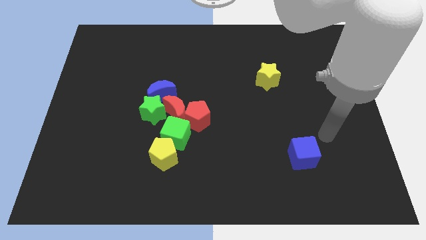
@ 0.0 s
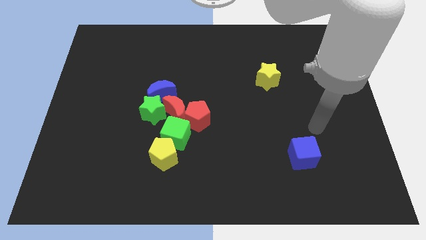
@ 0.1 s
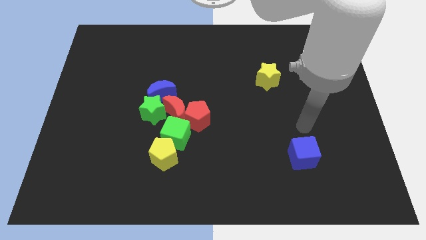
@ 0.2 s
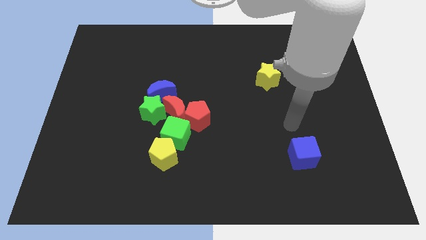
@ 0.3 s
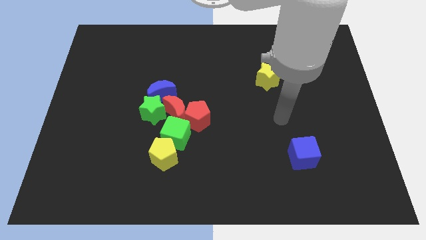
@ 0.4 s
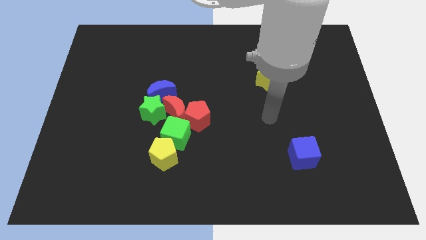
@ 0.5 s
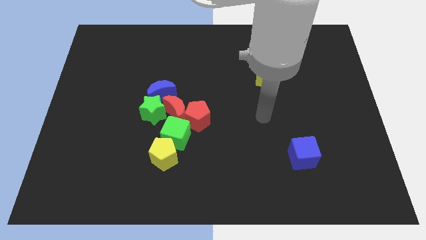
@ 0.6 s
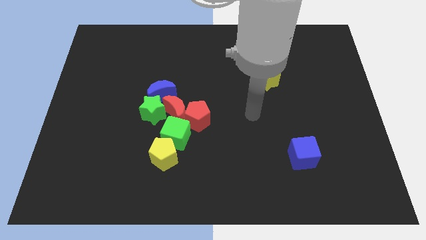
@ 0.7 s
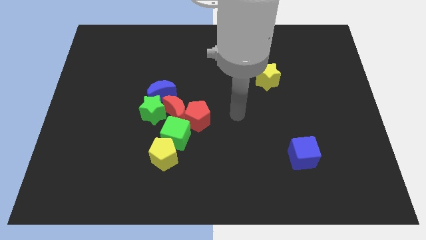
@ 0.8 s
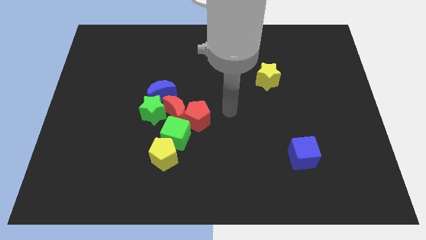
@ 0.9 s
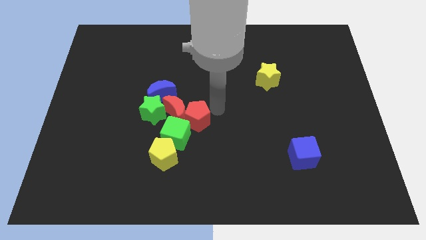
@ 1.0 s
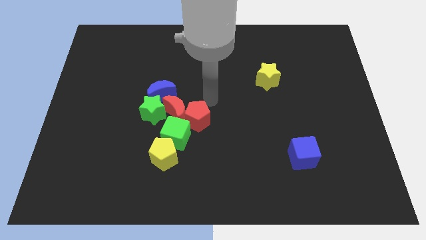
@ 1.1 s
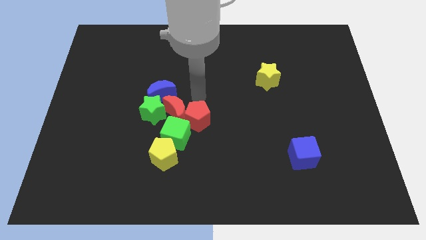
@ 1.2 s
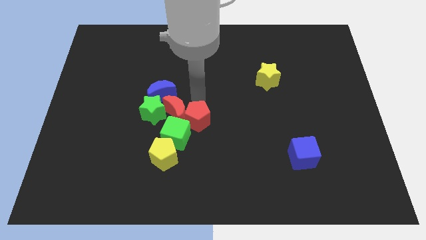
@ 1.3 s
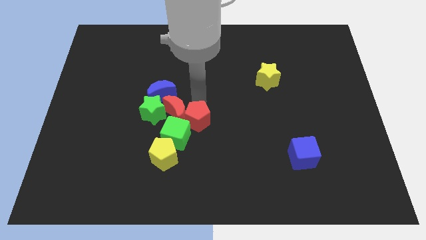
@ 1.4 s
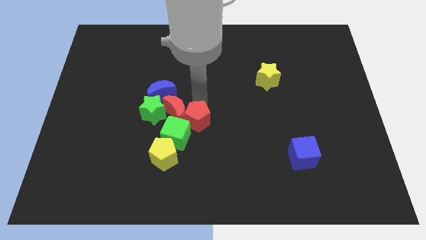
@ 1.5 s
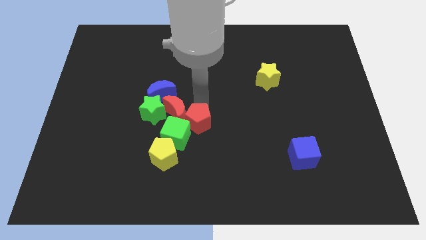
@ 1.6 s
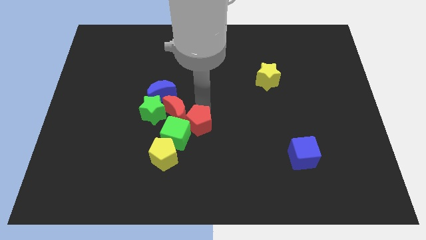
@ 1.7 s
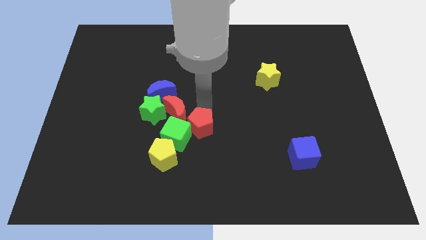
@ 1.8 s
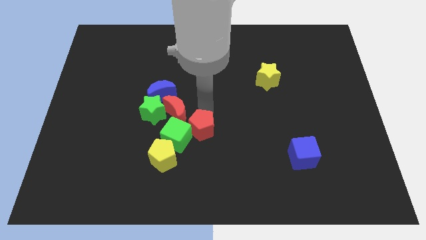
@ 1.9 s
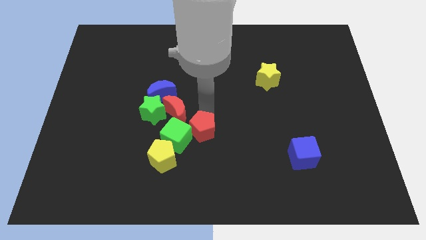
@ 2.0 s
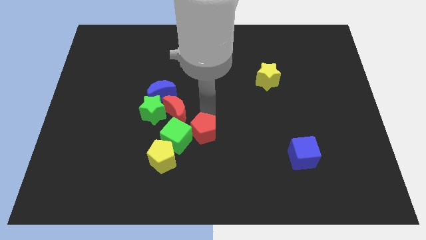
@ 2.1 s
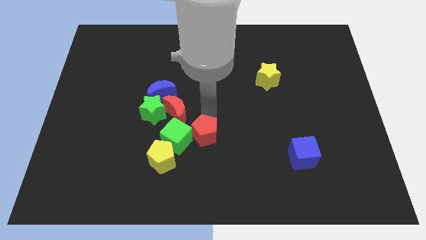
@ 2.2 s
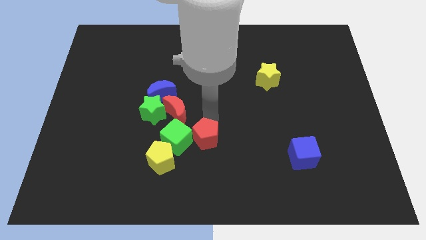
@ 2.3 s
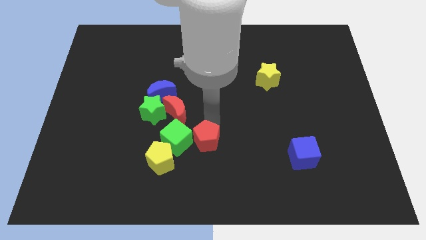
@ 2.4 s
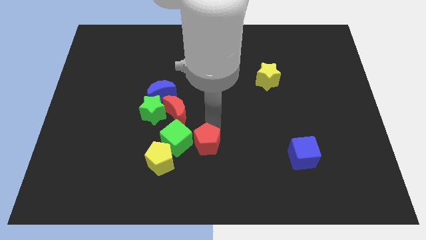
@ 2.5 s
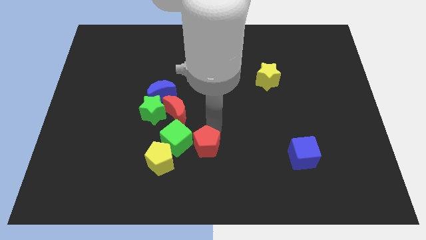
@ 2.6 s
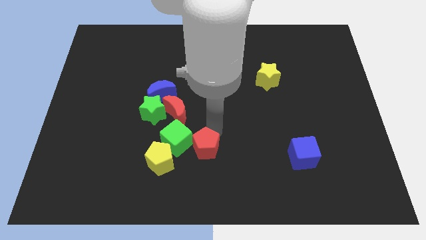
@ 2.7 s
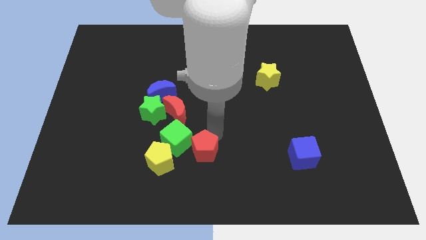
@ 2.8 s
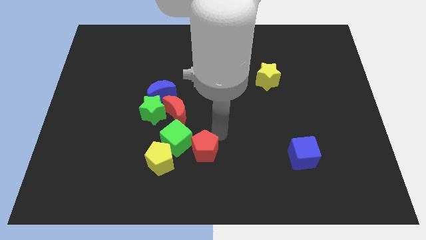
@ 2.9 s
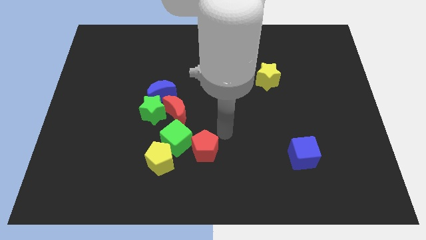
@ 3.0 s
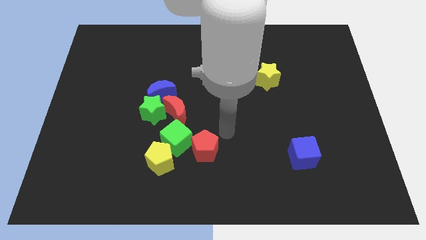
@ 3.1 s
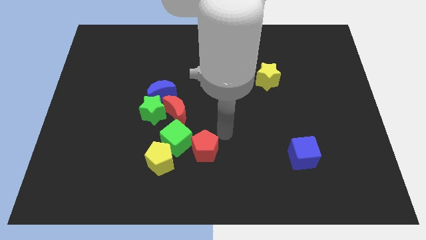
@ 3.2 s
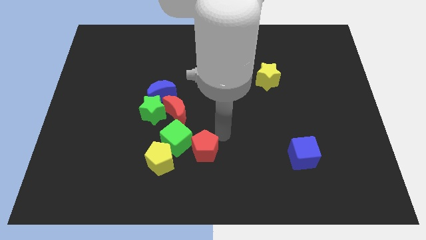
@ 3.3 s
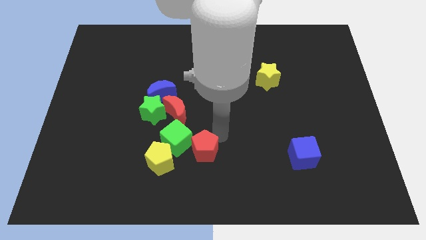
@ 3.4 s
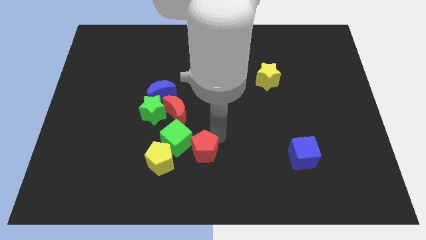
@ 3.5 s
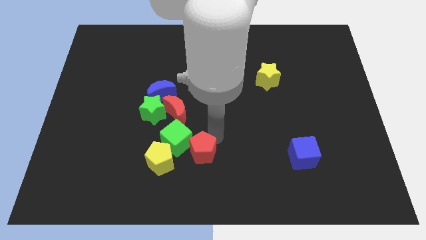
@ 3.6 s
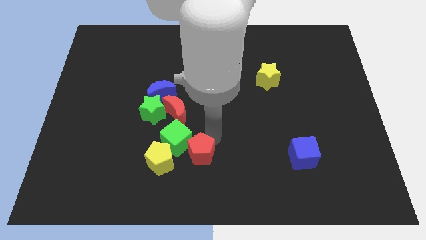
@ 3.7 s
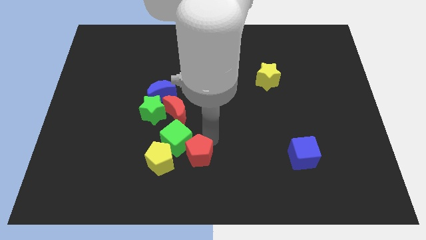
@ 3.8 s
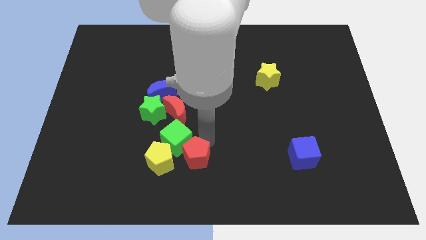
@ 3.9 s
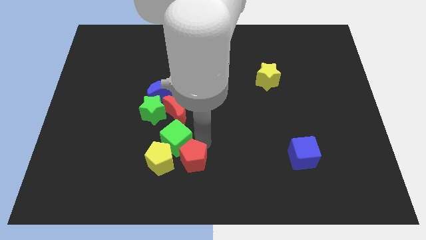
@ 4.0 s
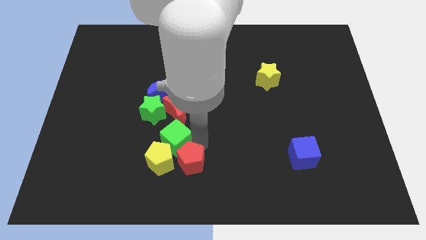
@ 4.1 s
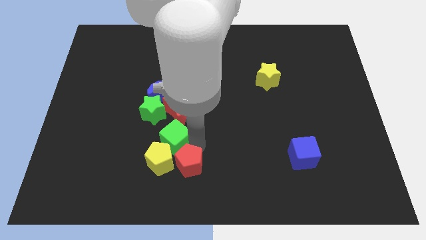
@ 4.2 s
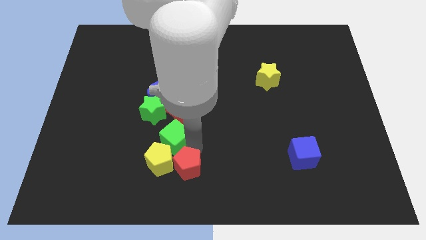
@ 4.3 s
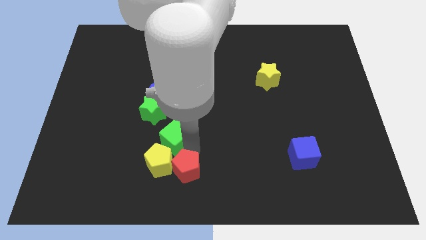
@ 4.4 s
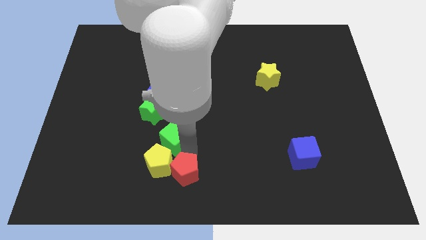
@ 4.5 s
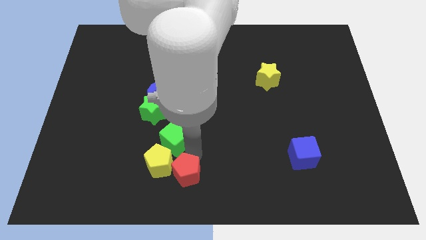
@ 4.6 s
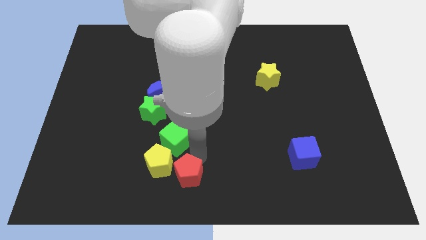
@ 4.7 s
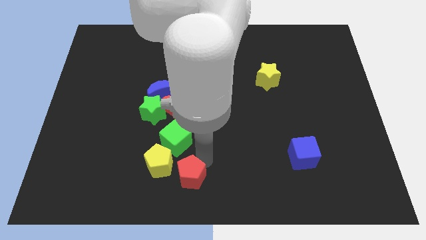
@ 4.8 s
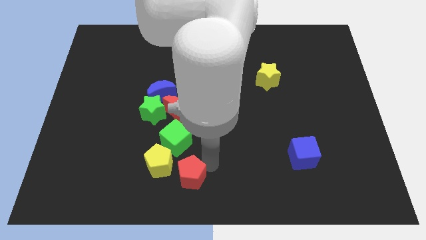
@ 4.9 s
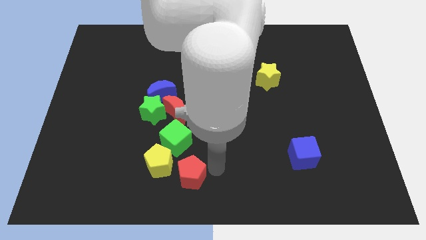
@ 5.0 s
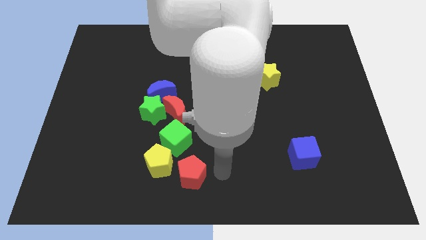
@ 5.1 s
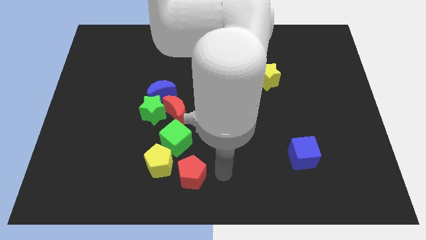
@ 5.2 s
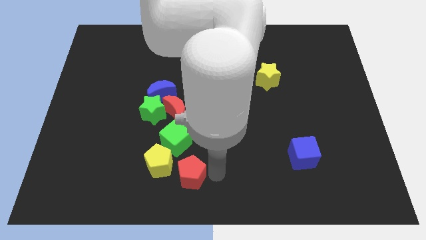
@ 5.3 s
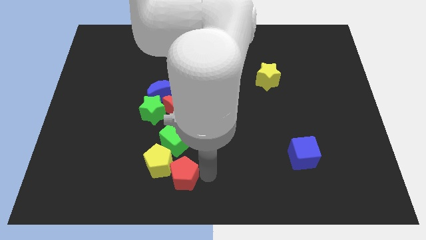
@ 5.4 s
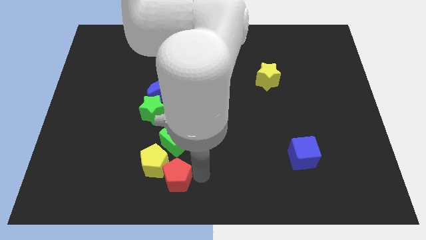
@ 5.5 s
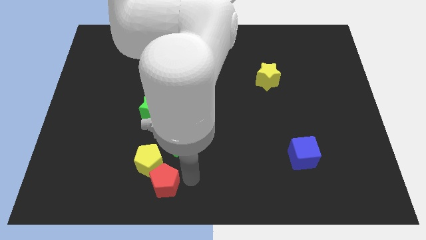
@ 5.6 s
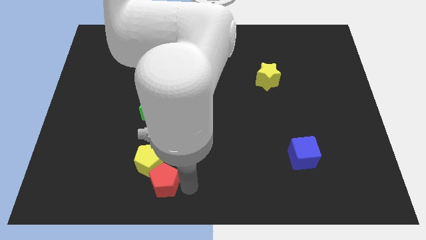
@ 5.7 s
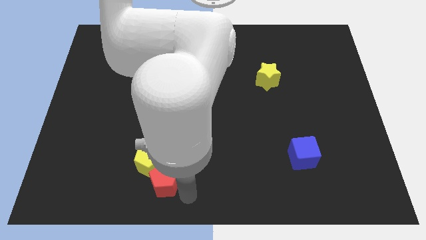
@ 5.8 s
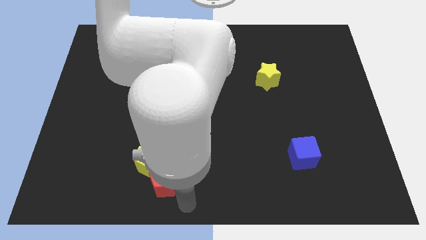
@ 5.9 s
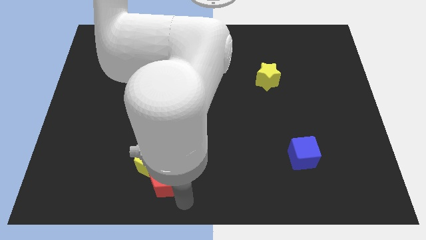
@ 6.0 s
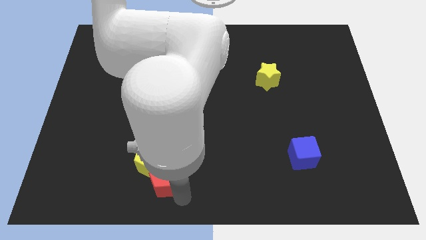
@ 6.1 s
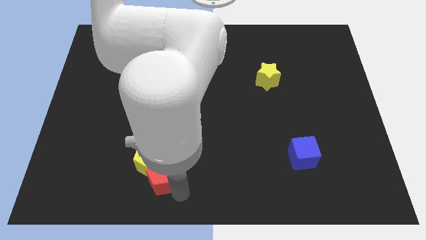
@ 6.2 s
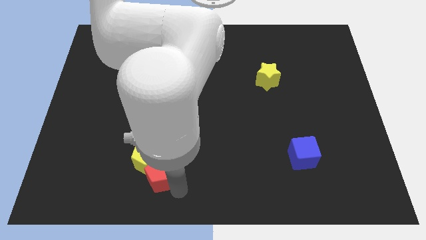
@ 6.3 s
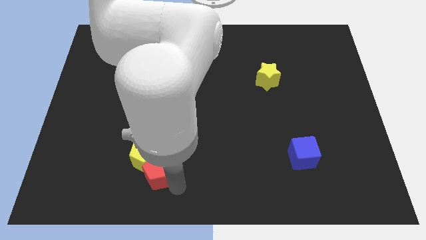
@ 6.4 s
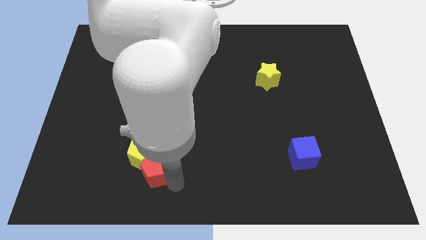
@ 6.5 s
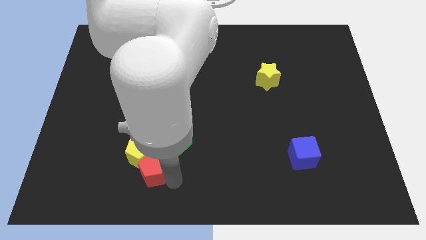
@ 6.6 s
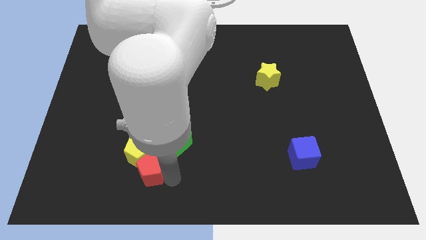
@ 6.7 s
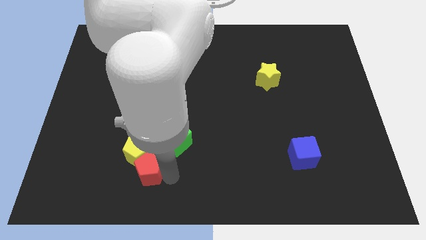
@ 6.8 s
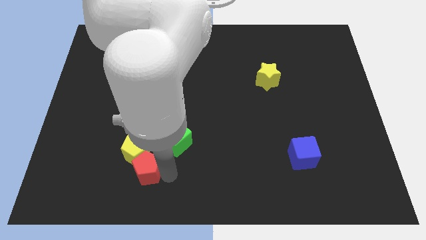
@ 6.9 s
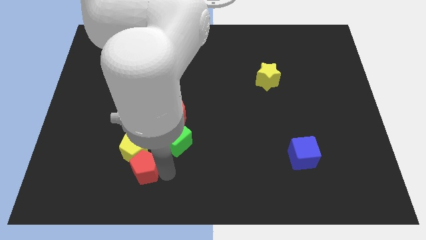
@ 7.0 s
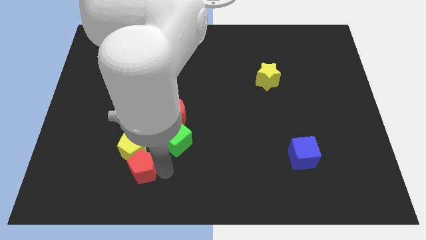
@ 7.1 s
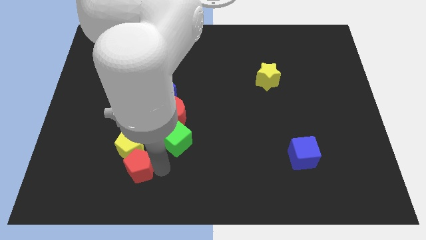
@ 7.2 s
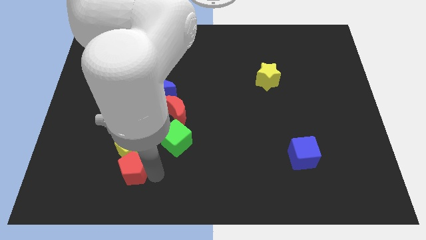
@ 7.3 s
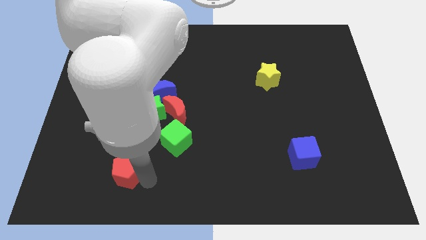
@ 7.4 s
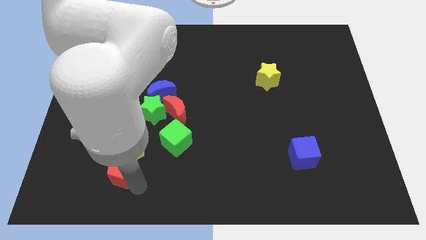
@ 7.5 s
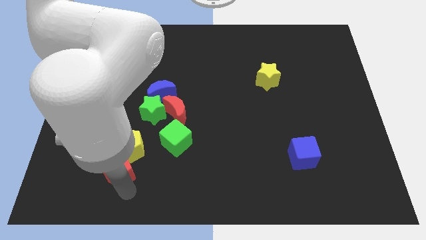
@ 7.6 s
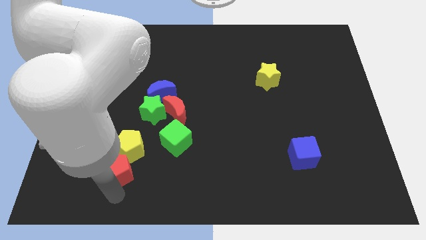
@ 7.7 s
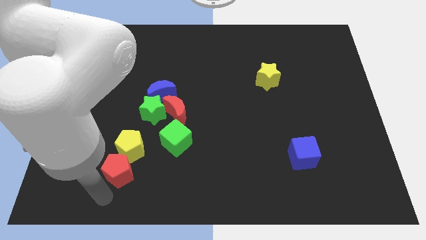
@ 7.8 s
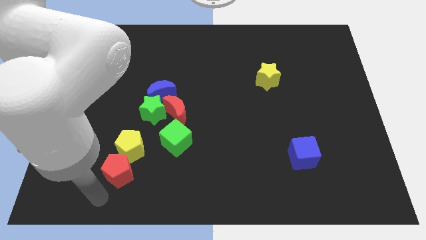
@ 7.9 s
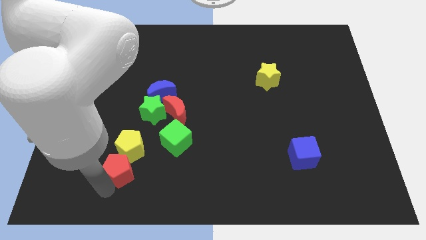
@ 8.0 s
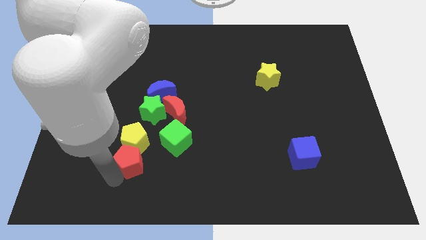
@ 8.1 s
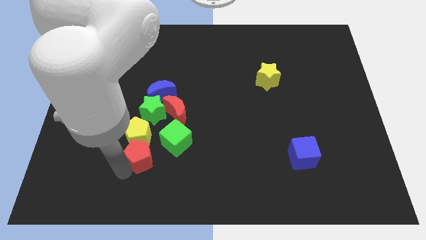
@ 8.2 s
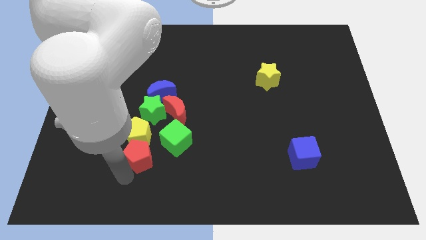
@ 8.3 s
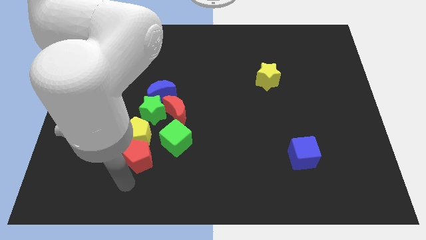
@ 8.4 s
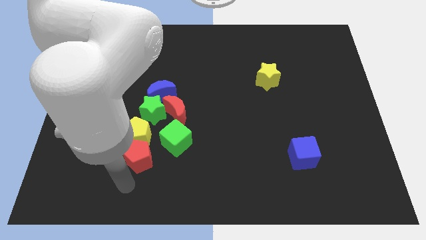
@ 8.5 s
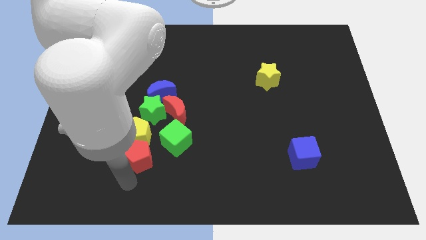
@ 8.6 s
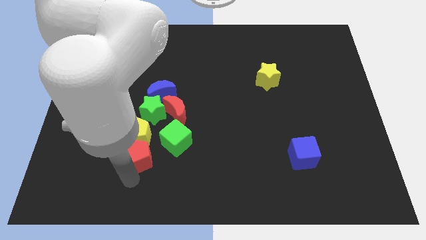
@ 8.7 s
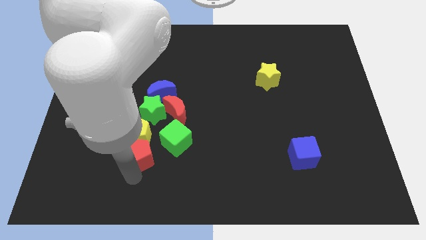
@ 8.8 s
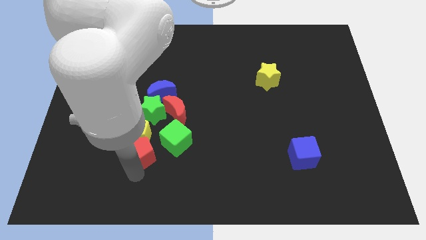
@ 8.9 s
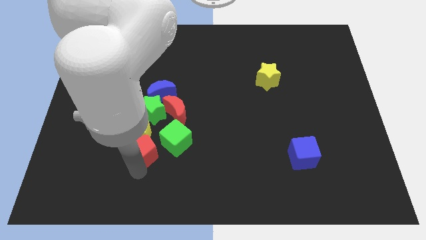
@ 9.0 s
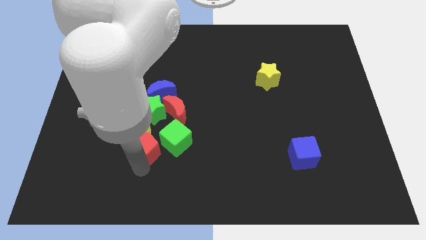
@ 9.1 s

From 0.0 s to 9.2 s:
put the red pentagon to the bottom left side of the red moon
